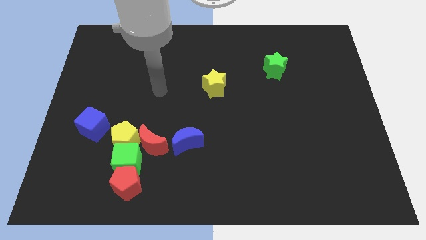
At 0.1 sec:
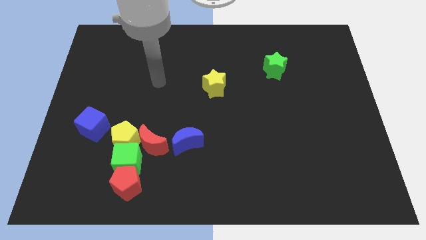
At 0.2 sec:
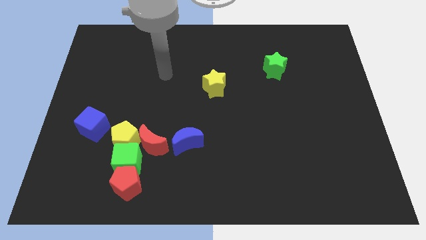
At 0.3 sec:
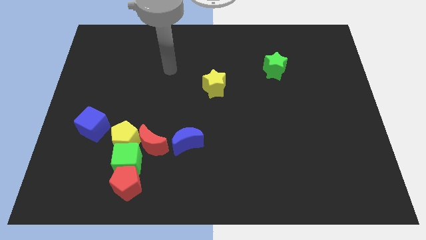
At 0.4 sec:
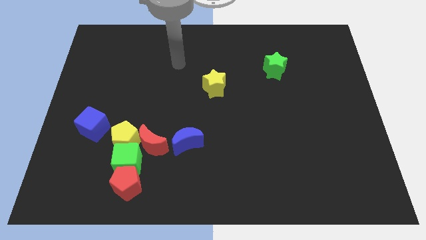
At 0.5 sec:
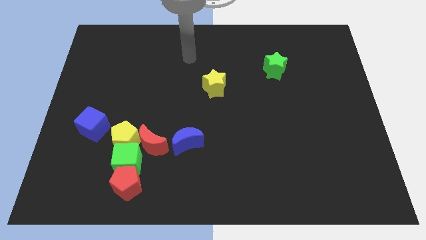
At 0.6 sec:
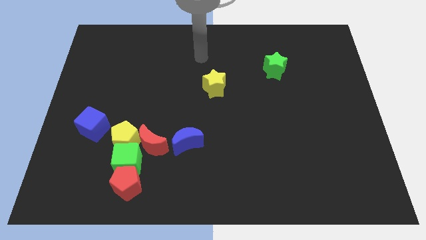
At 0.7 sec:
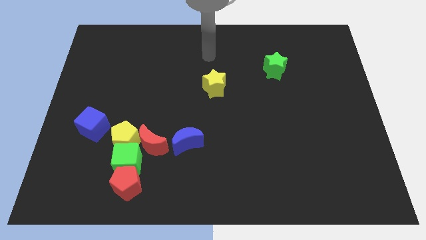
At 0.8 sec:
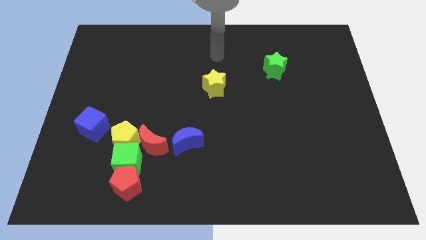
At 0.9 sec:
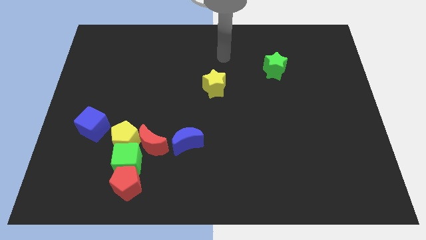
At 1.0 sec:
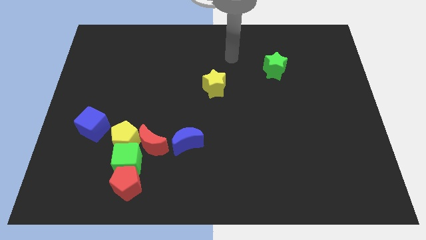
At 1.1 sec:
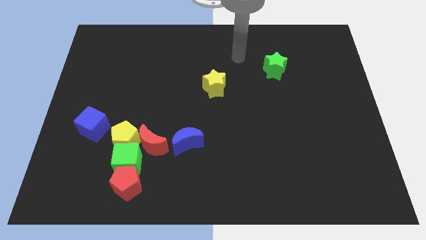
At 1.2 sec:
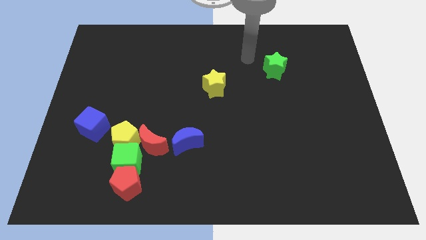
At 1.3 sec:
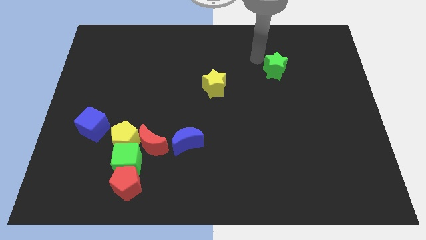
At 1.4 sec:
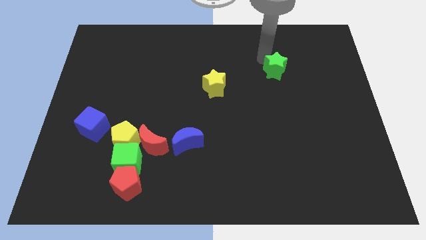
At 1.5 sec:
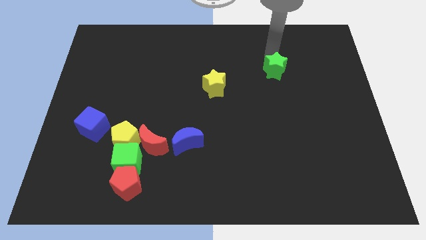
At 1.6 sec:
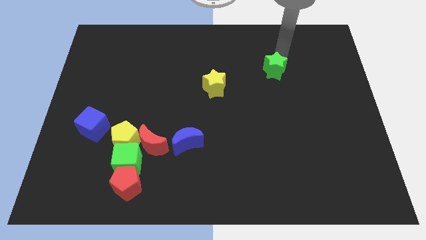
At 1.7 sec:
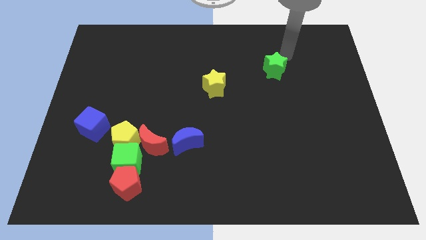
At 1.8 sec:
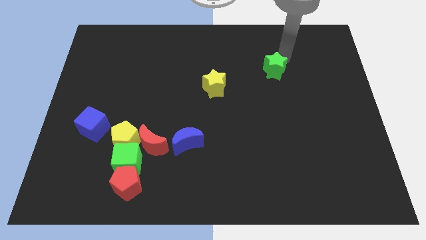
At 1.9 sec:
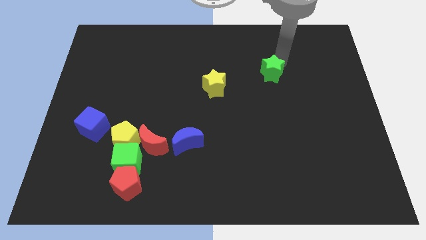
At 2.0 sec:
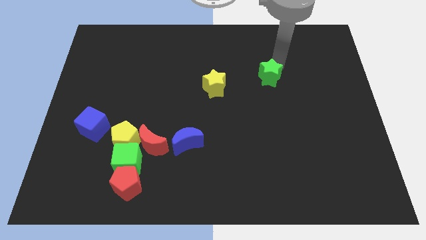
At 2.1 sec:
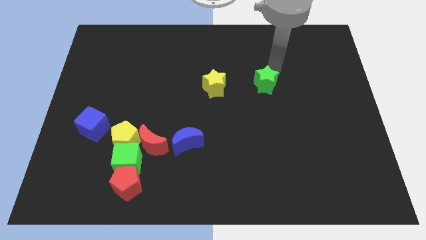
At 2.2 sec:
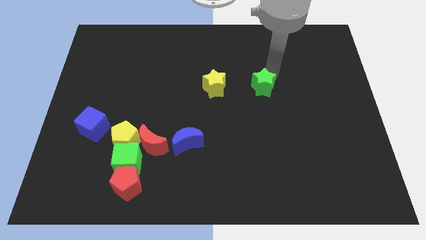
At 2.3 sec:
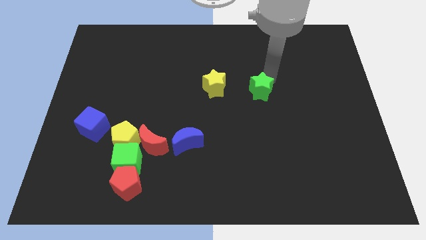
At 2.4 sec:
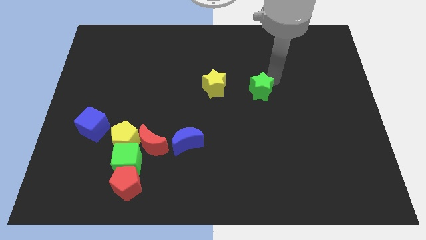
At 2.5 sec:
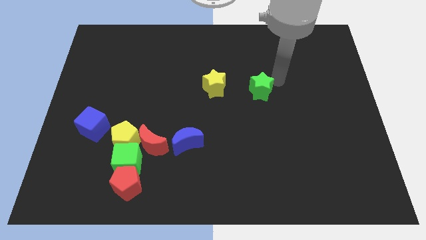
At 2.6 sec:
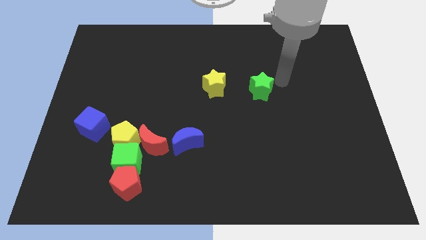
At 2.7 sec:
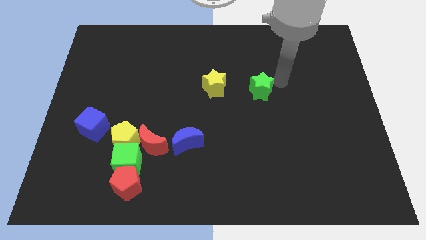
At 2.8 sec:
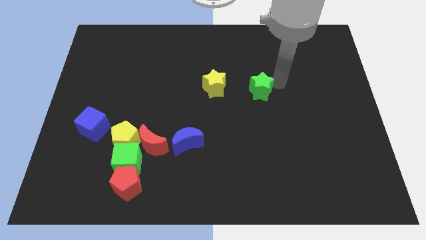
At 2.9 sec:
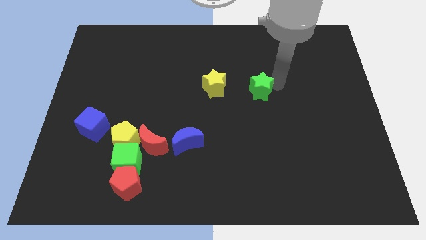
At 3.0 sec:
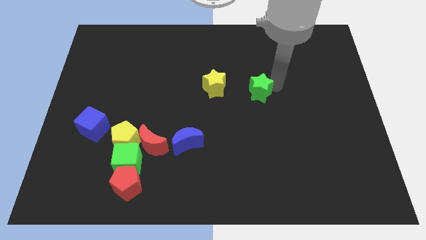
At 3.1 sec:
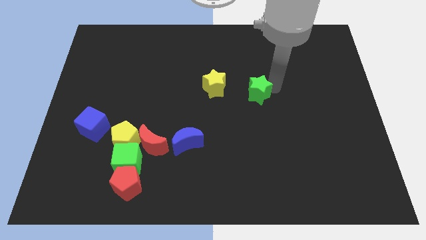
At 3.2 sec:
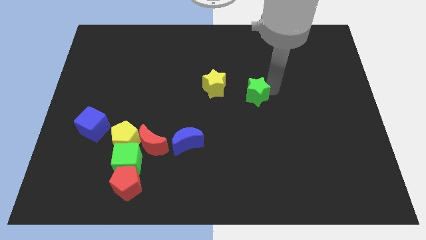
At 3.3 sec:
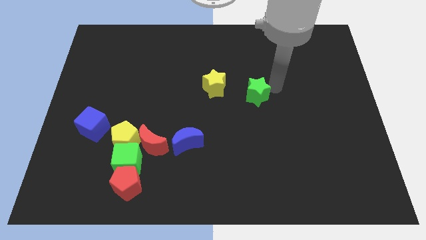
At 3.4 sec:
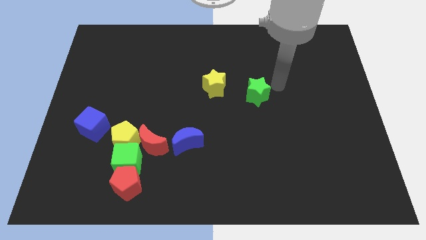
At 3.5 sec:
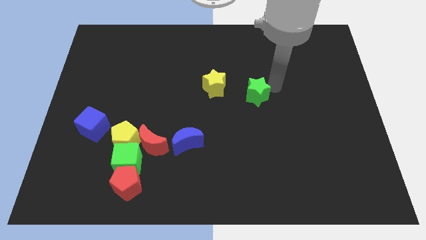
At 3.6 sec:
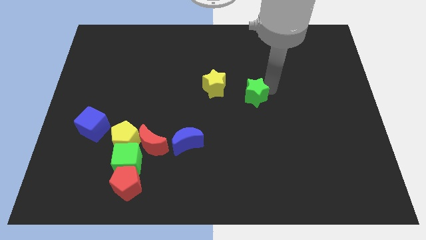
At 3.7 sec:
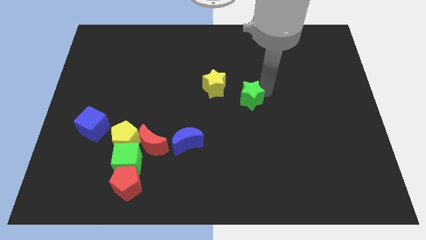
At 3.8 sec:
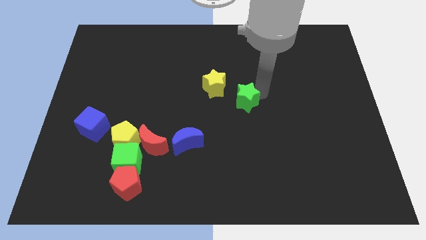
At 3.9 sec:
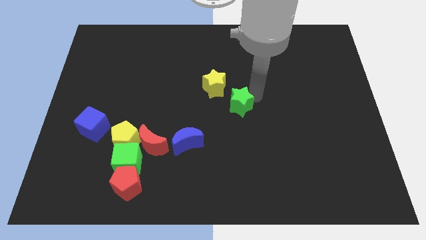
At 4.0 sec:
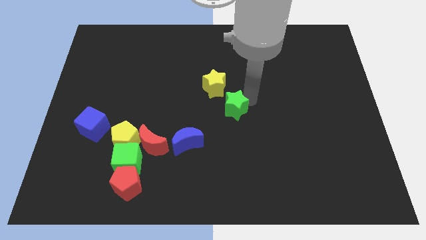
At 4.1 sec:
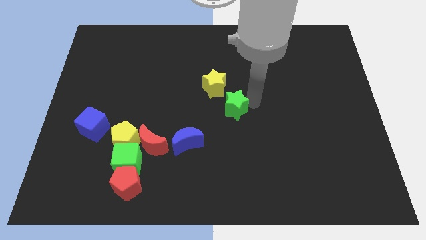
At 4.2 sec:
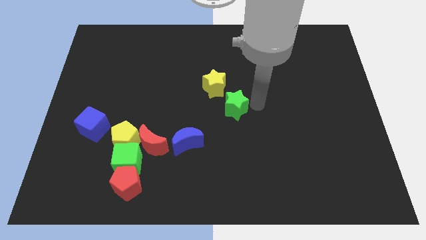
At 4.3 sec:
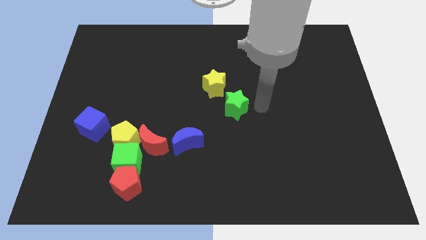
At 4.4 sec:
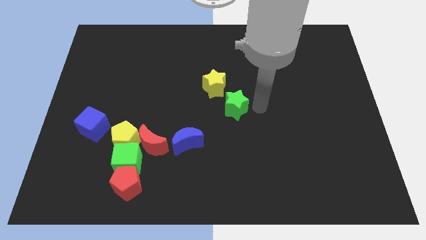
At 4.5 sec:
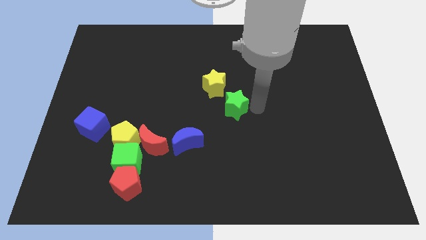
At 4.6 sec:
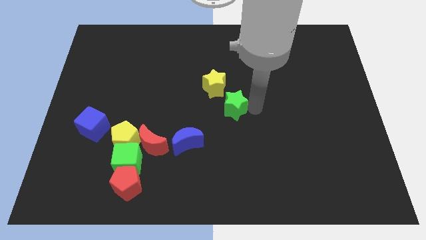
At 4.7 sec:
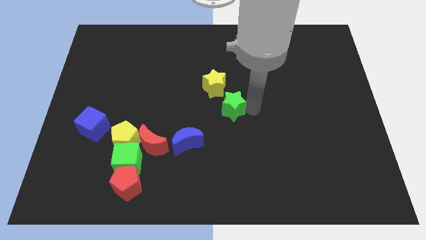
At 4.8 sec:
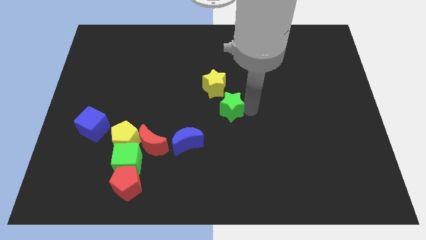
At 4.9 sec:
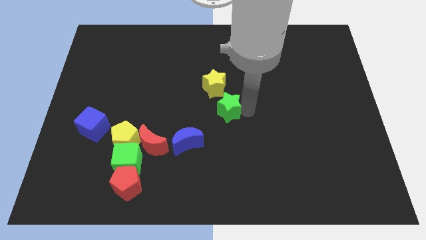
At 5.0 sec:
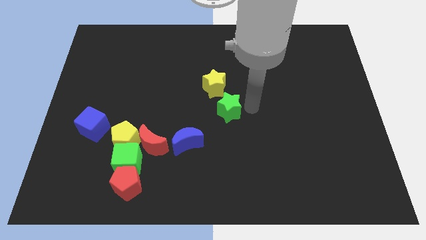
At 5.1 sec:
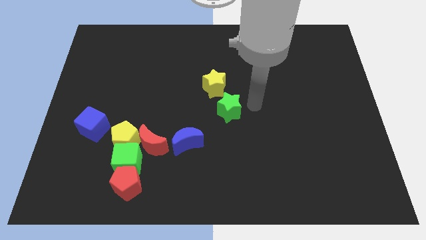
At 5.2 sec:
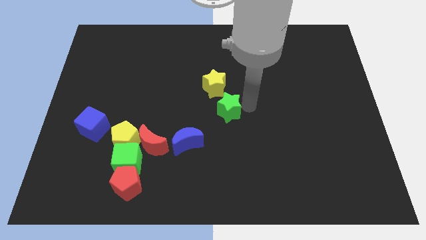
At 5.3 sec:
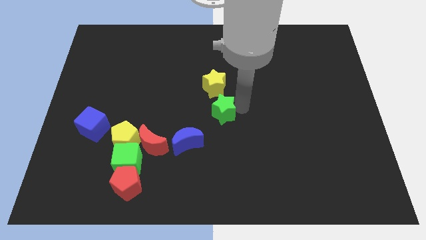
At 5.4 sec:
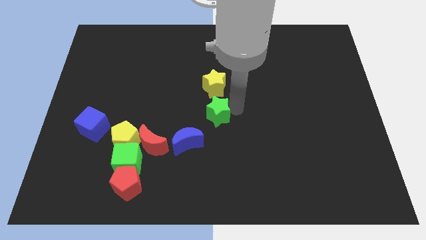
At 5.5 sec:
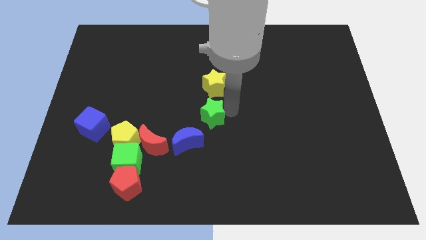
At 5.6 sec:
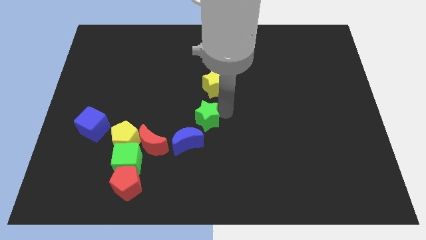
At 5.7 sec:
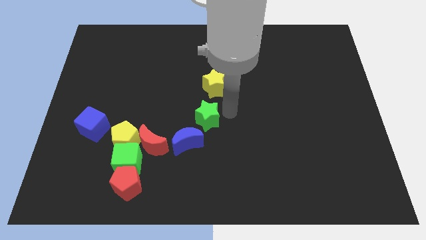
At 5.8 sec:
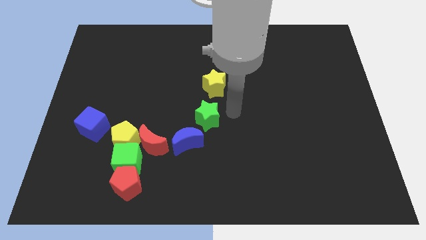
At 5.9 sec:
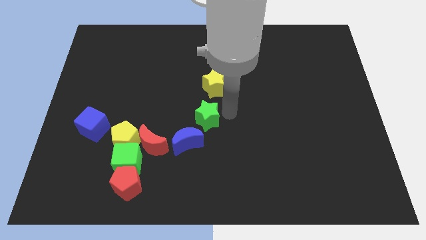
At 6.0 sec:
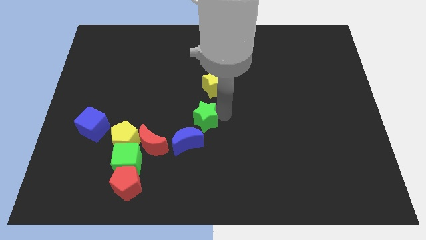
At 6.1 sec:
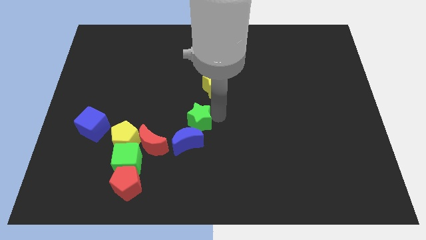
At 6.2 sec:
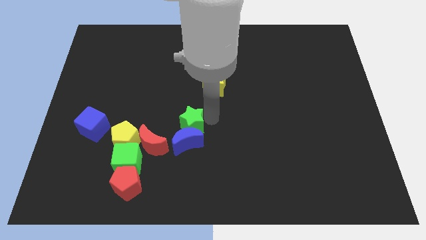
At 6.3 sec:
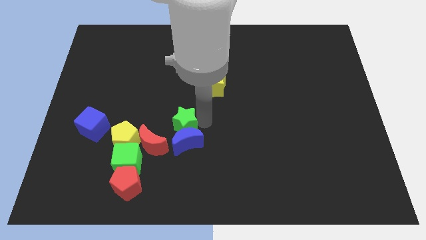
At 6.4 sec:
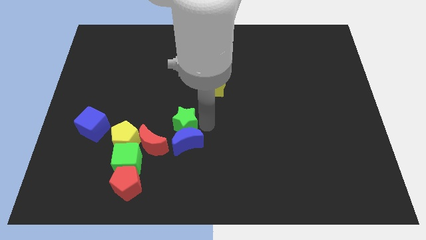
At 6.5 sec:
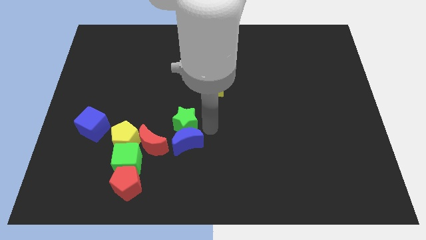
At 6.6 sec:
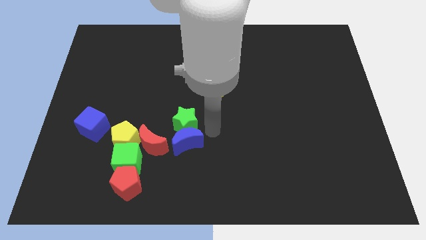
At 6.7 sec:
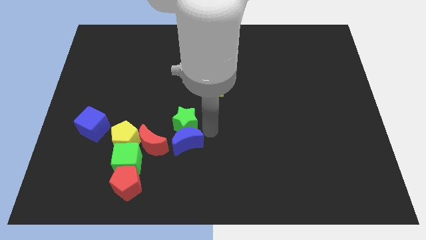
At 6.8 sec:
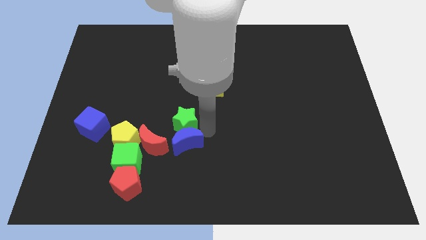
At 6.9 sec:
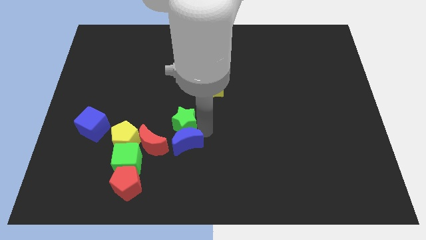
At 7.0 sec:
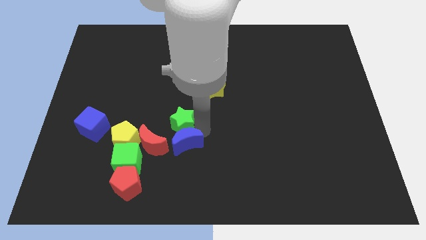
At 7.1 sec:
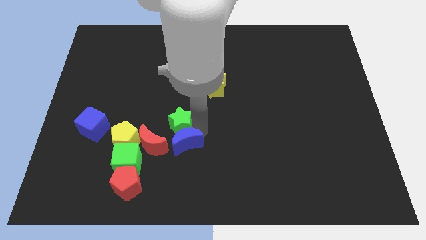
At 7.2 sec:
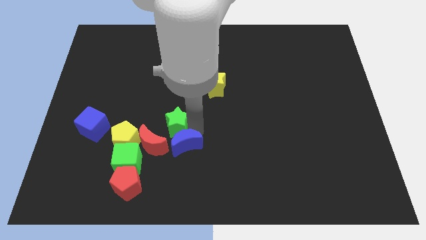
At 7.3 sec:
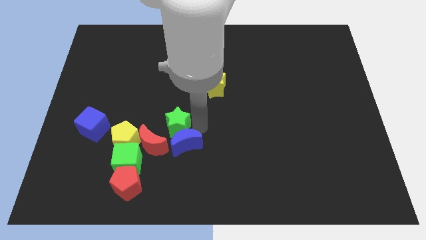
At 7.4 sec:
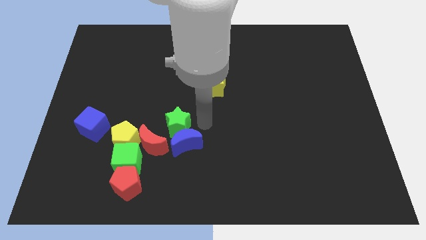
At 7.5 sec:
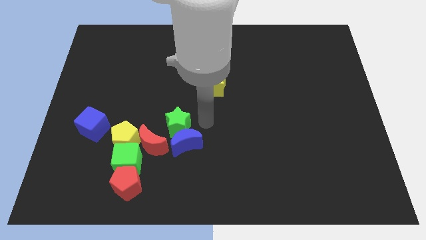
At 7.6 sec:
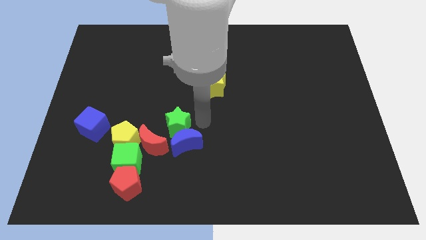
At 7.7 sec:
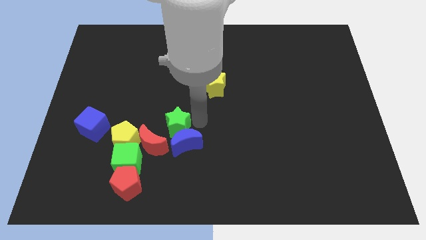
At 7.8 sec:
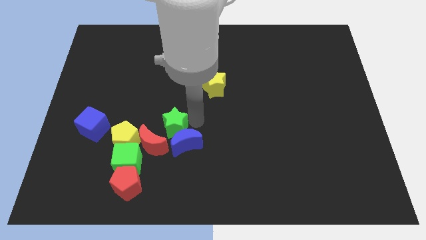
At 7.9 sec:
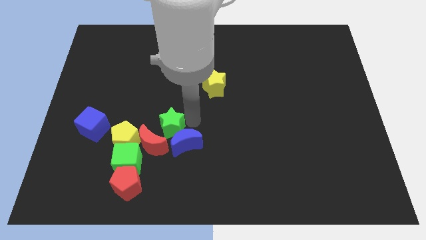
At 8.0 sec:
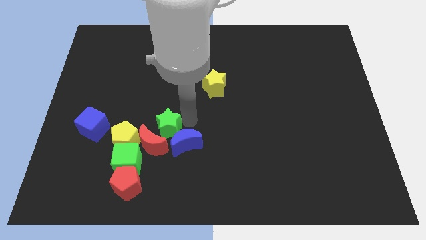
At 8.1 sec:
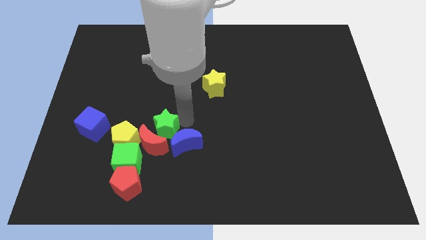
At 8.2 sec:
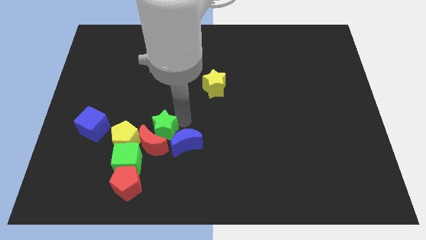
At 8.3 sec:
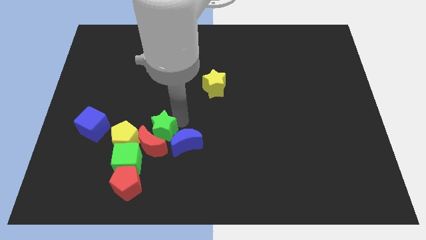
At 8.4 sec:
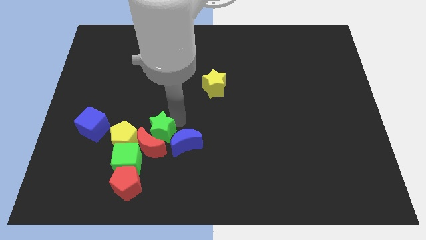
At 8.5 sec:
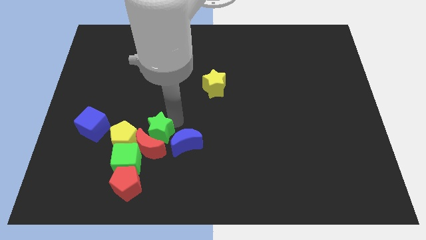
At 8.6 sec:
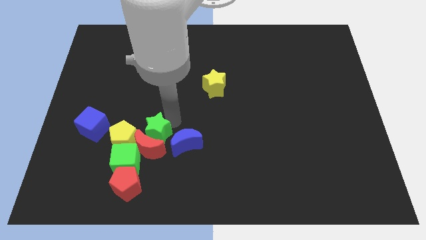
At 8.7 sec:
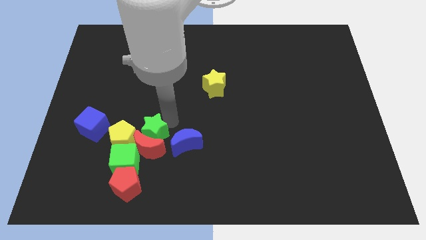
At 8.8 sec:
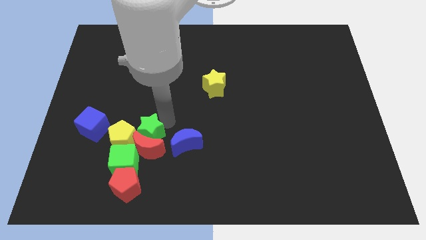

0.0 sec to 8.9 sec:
push the green star next to the yellow pentagon
